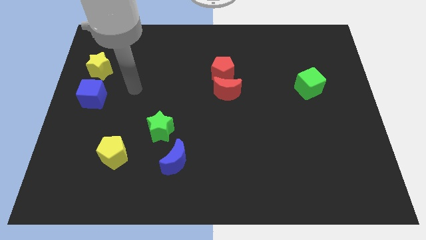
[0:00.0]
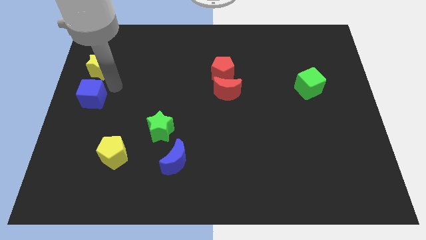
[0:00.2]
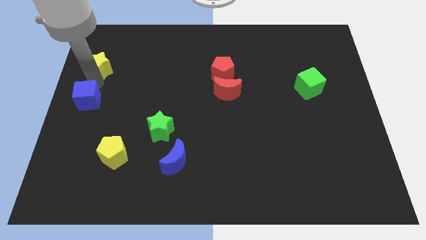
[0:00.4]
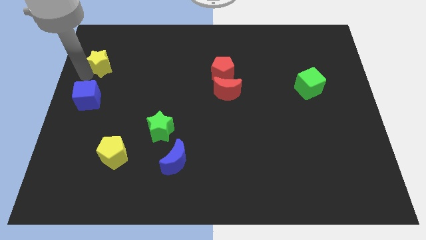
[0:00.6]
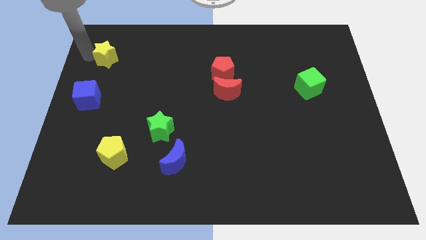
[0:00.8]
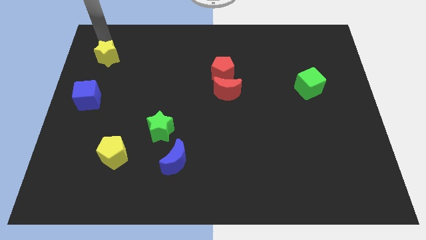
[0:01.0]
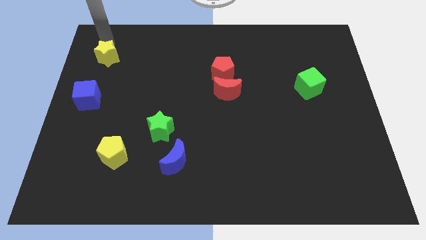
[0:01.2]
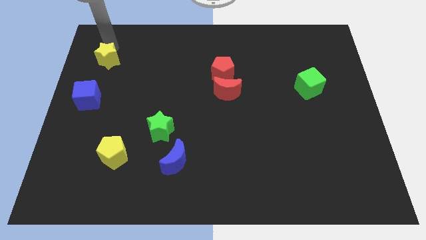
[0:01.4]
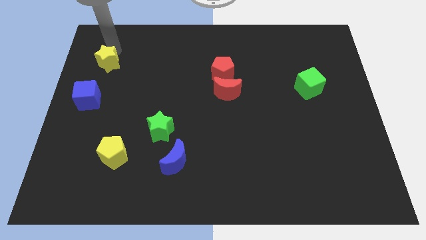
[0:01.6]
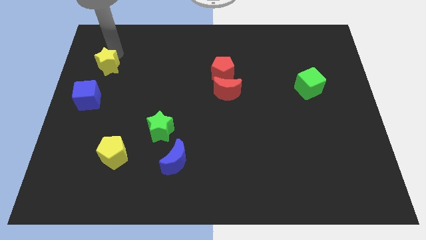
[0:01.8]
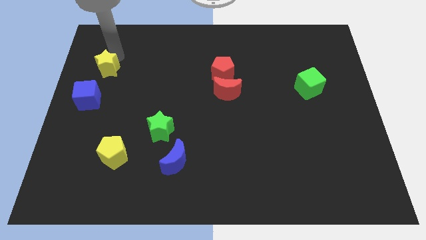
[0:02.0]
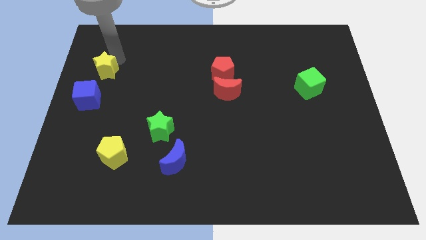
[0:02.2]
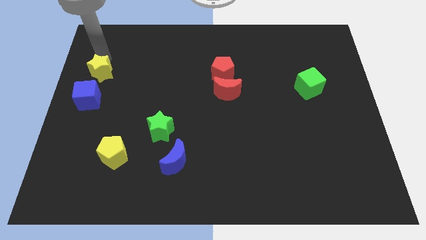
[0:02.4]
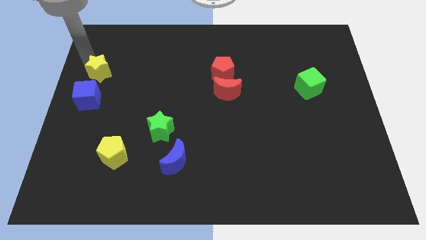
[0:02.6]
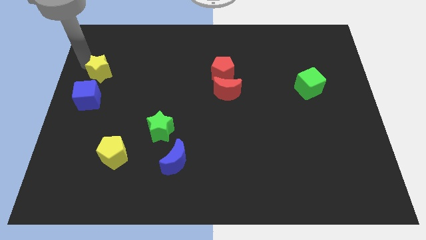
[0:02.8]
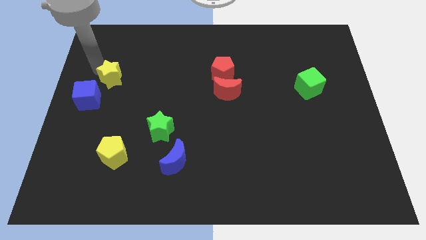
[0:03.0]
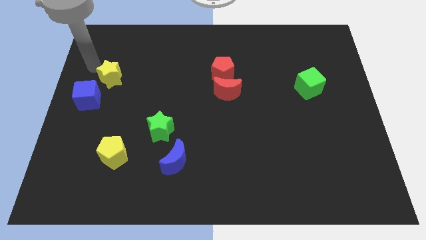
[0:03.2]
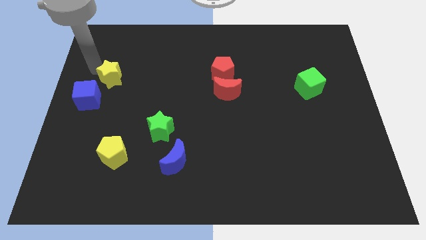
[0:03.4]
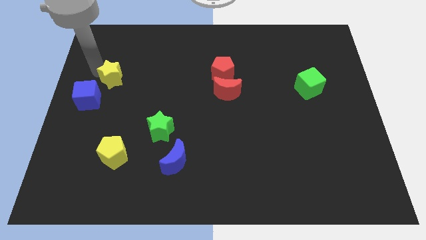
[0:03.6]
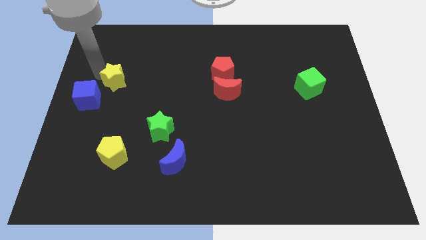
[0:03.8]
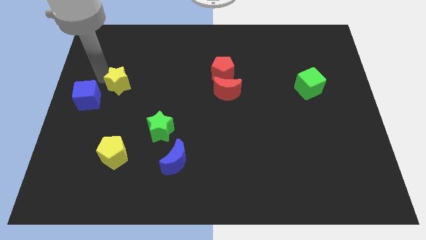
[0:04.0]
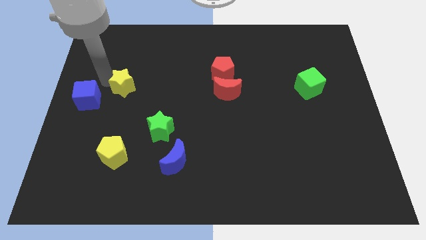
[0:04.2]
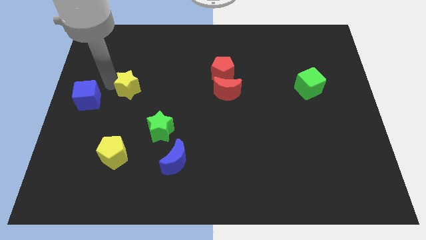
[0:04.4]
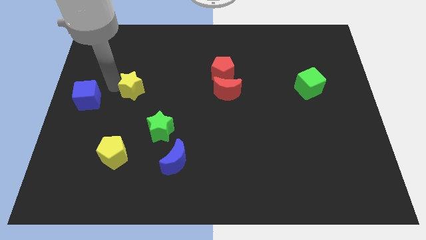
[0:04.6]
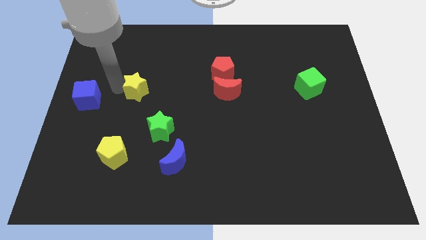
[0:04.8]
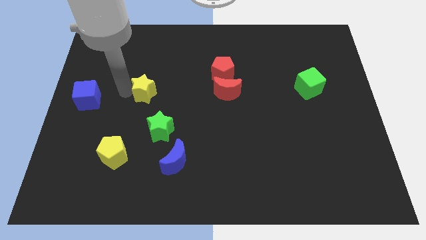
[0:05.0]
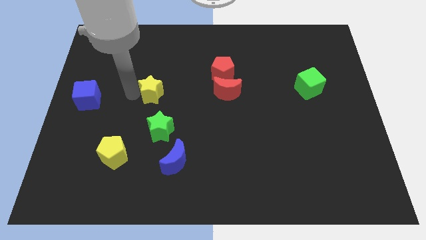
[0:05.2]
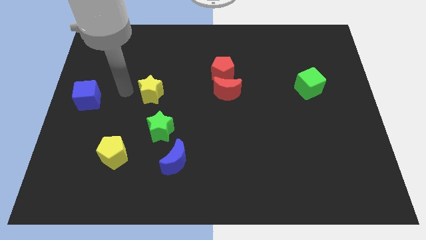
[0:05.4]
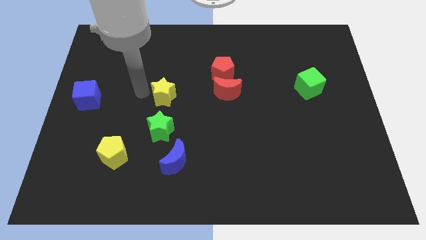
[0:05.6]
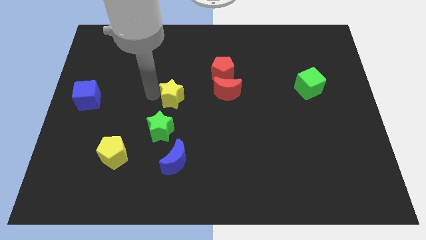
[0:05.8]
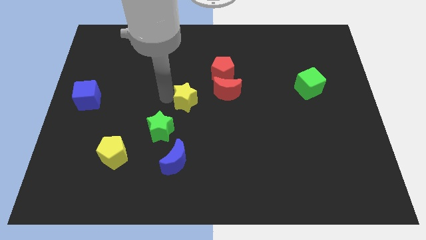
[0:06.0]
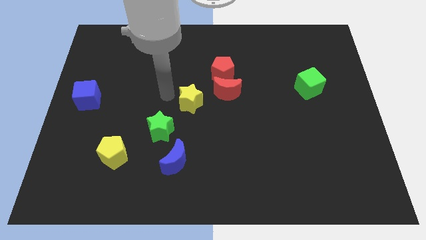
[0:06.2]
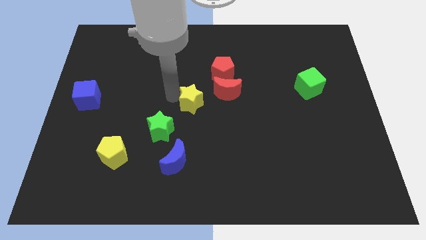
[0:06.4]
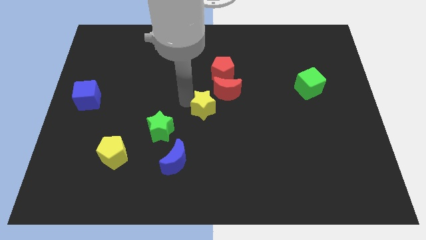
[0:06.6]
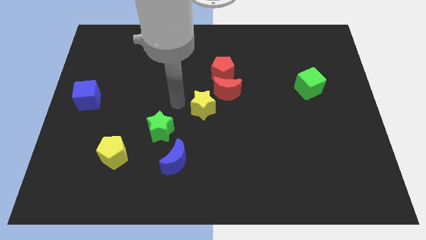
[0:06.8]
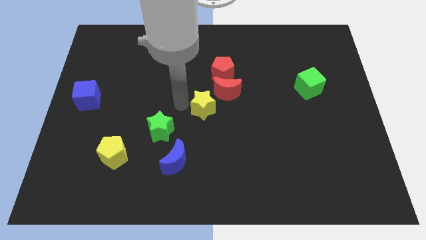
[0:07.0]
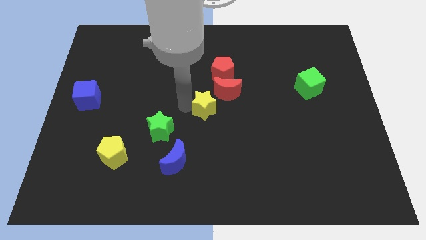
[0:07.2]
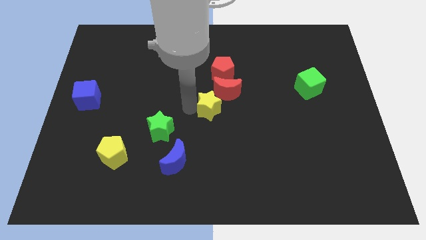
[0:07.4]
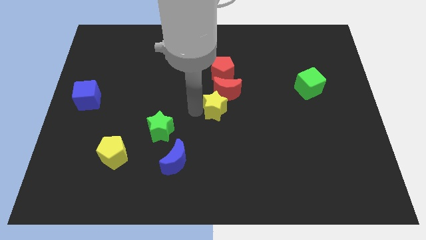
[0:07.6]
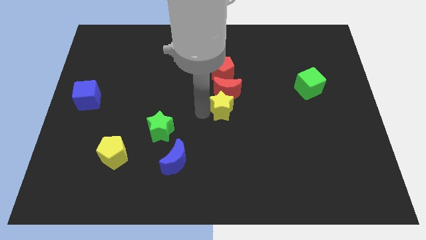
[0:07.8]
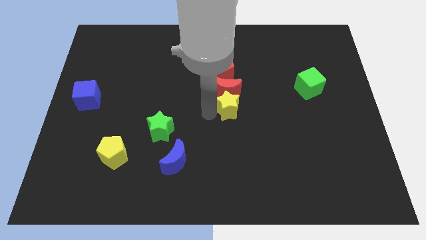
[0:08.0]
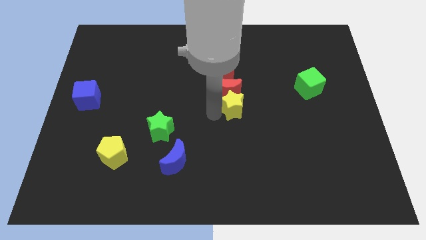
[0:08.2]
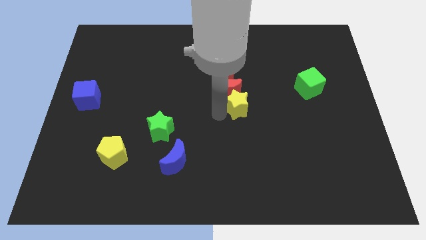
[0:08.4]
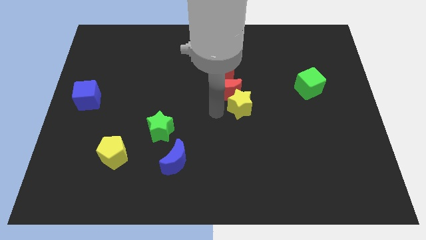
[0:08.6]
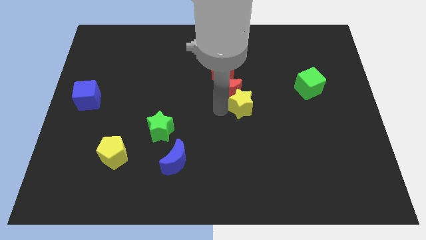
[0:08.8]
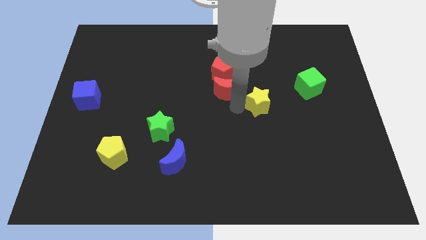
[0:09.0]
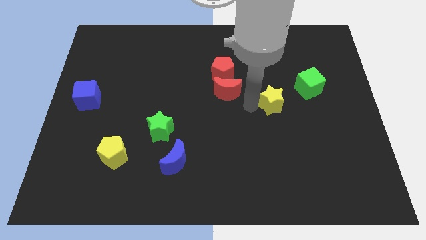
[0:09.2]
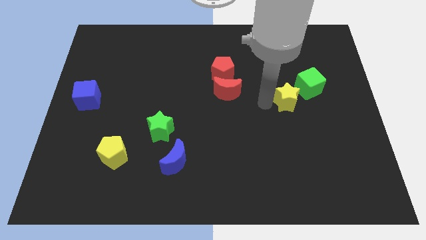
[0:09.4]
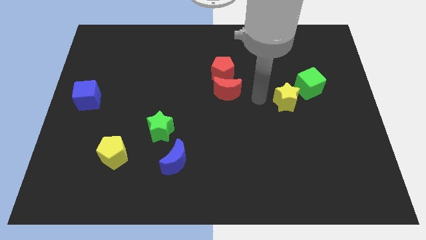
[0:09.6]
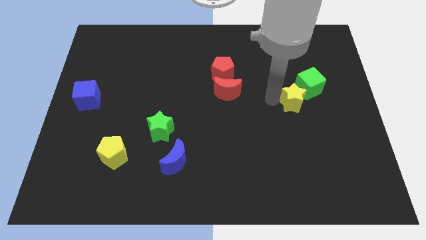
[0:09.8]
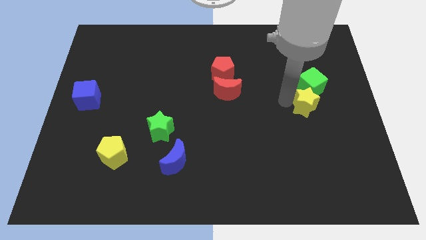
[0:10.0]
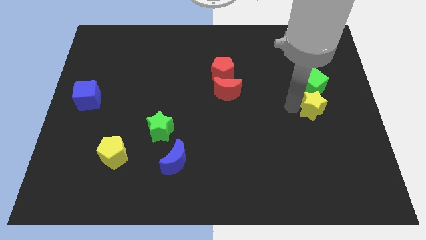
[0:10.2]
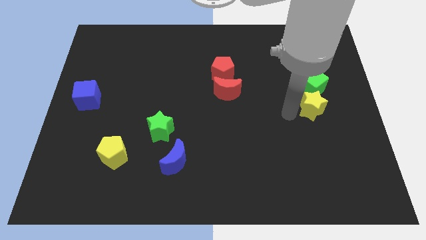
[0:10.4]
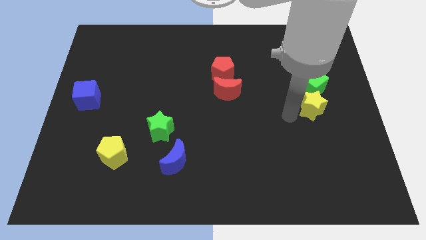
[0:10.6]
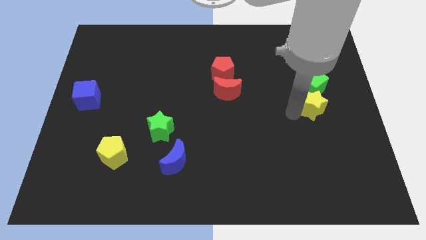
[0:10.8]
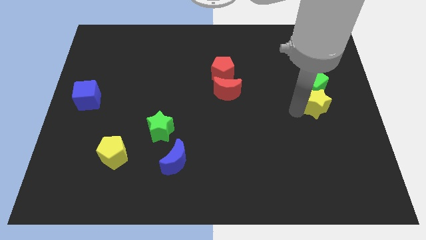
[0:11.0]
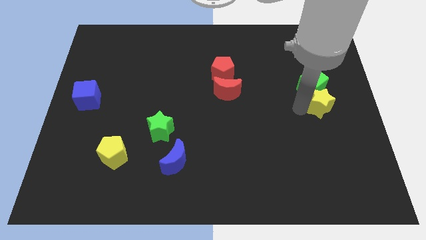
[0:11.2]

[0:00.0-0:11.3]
put the yellow star to the right side of the board

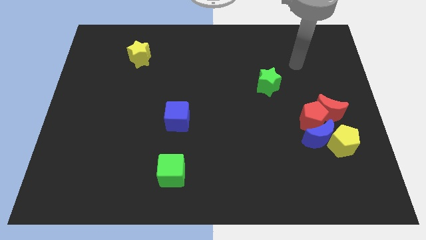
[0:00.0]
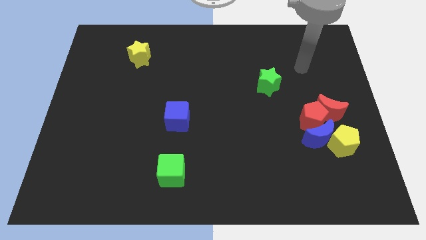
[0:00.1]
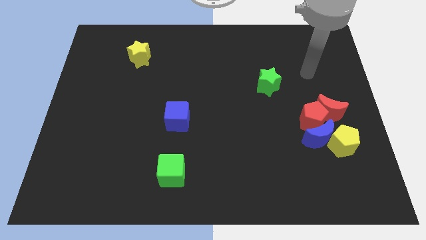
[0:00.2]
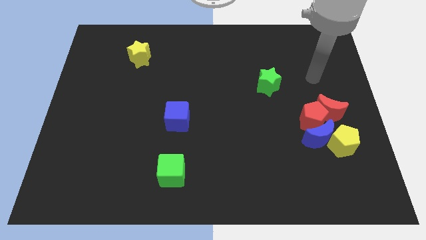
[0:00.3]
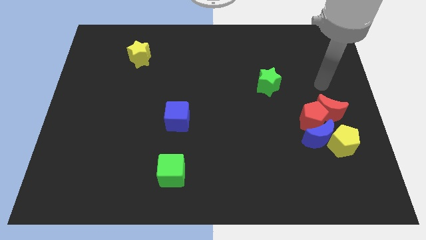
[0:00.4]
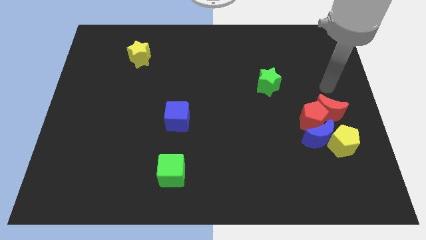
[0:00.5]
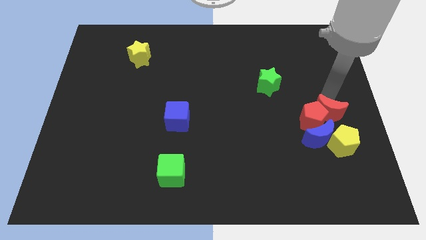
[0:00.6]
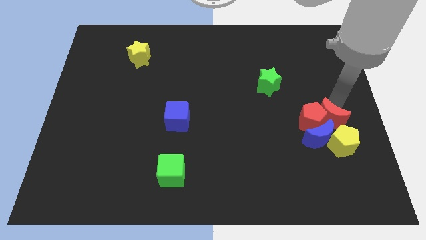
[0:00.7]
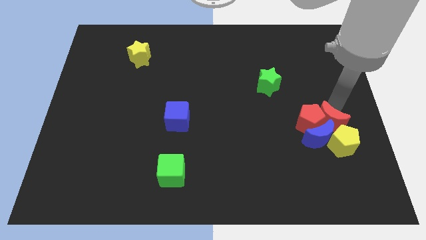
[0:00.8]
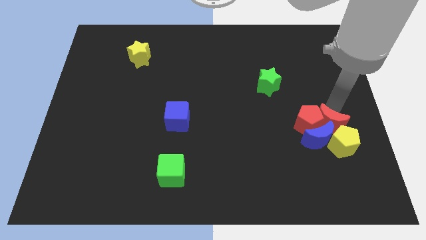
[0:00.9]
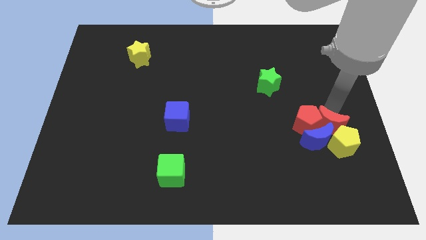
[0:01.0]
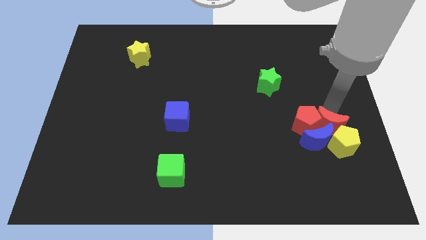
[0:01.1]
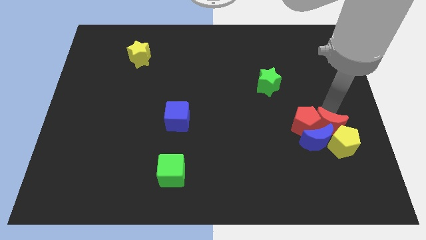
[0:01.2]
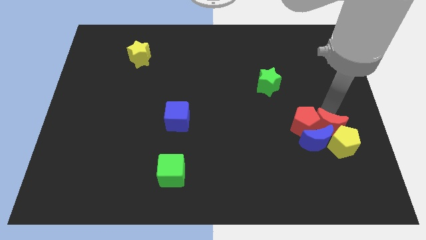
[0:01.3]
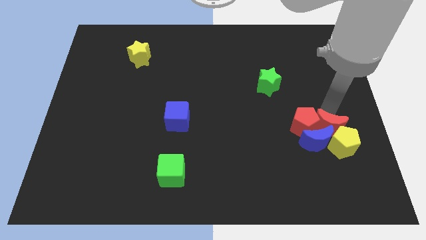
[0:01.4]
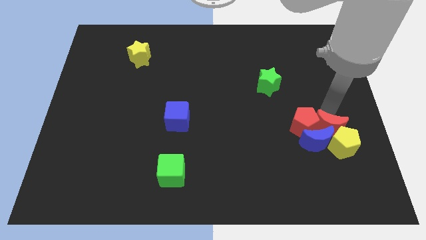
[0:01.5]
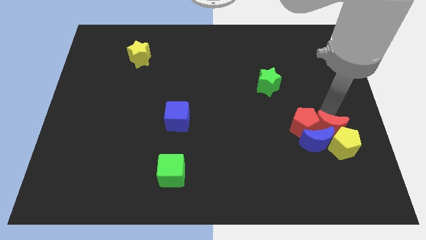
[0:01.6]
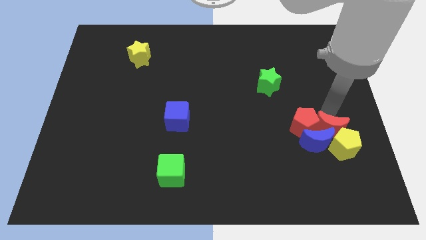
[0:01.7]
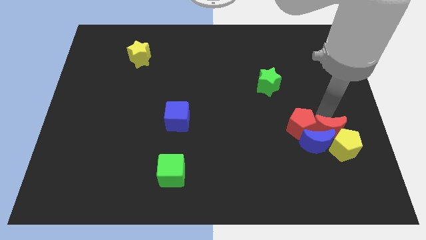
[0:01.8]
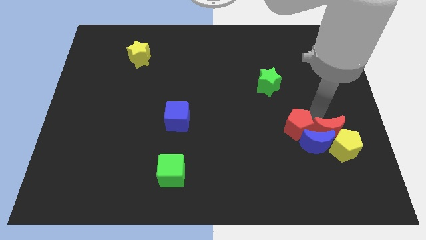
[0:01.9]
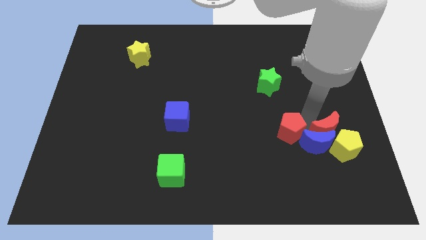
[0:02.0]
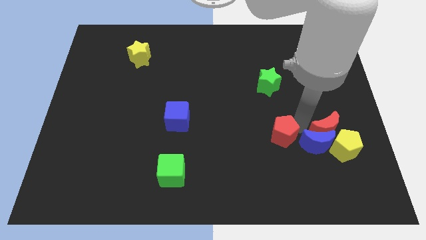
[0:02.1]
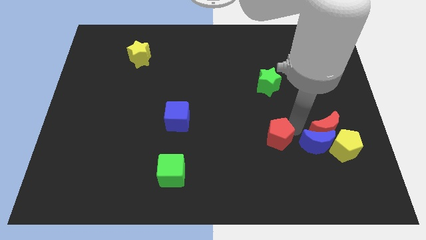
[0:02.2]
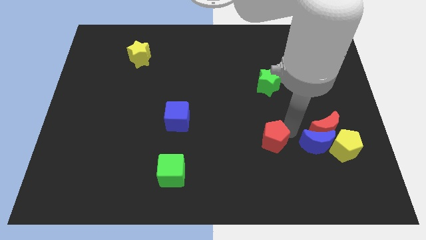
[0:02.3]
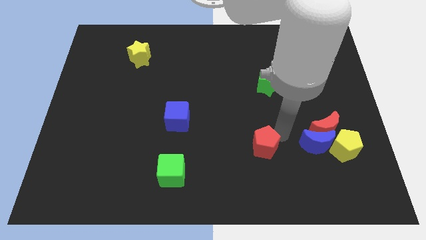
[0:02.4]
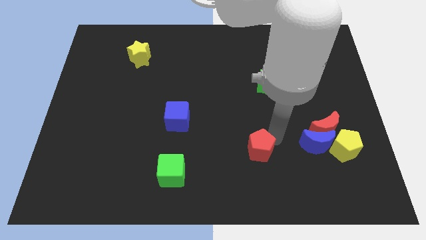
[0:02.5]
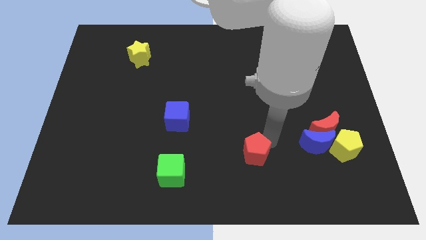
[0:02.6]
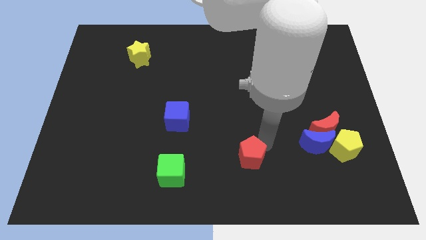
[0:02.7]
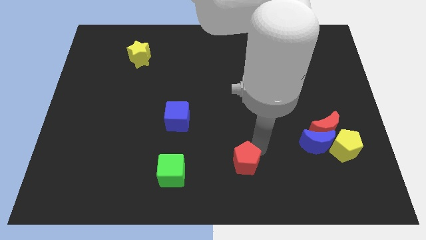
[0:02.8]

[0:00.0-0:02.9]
move the red pentagon to the bottom side
